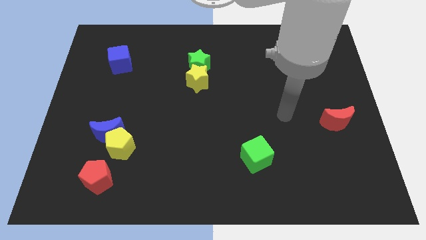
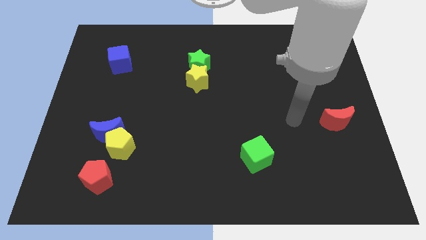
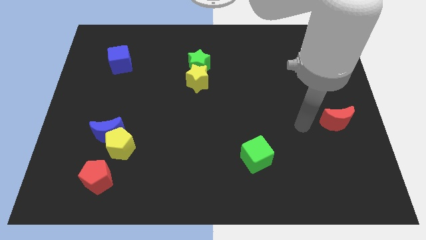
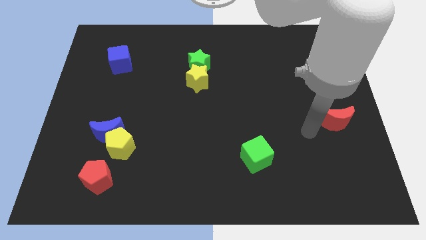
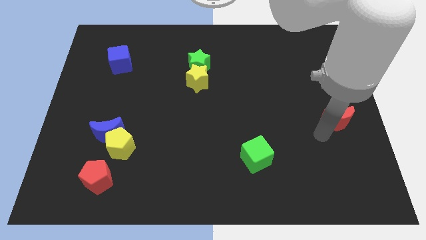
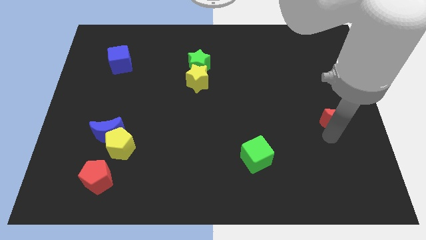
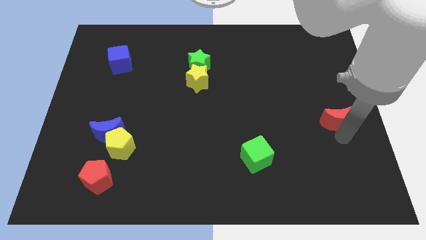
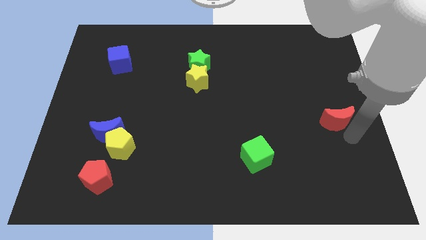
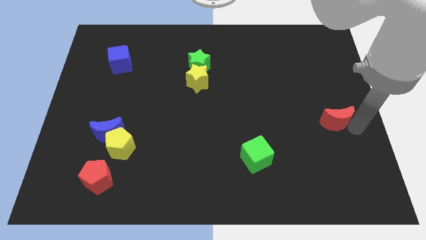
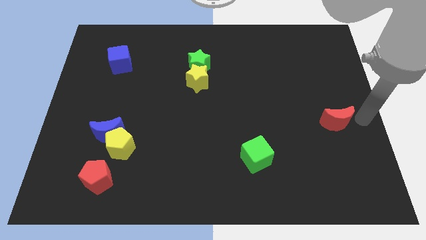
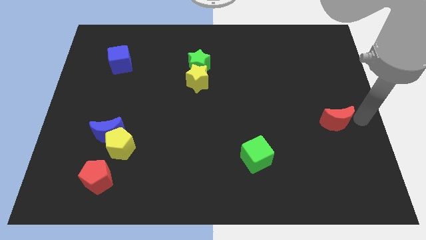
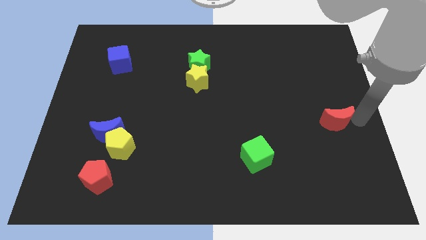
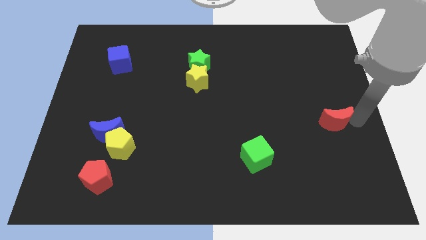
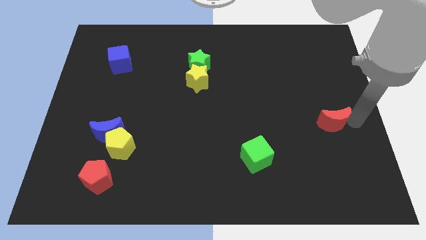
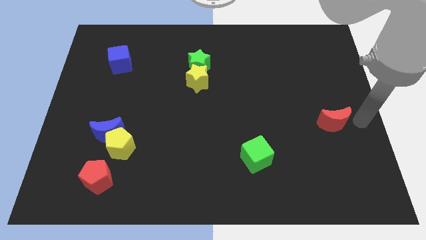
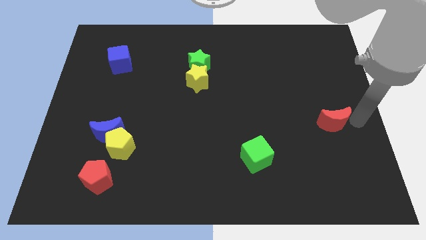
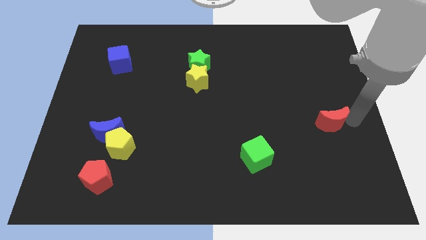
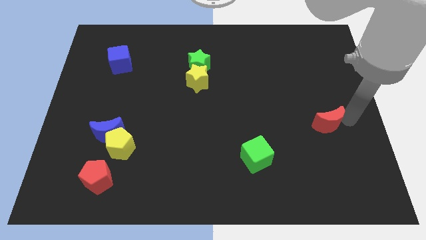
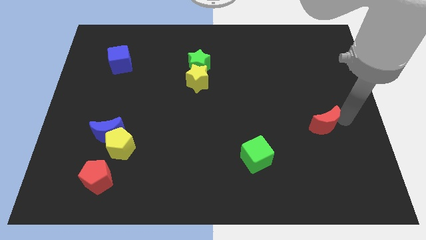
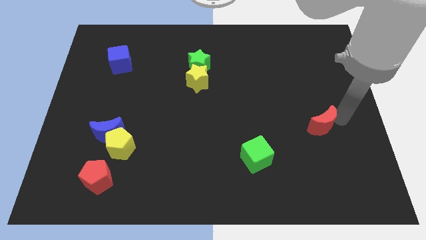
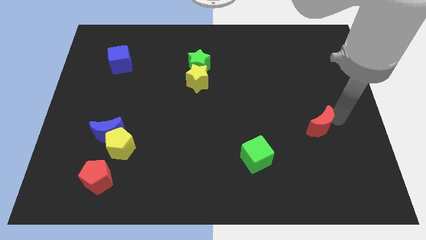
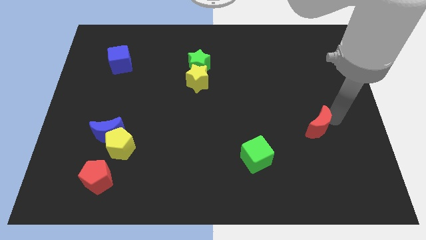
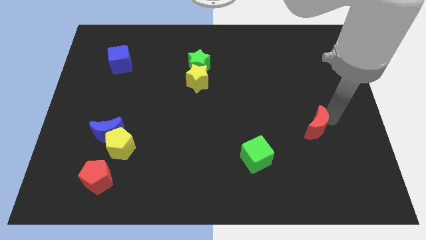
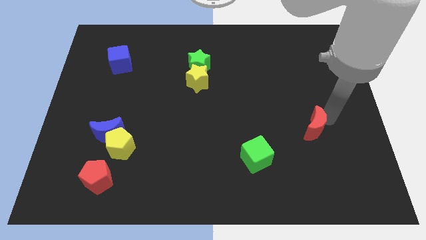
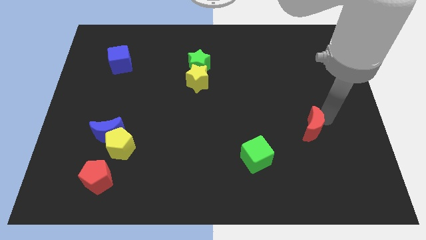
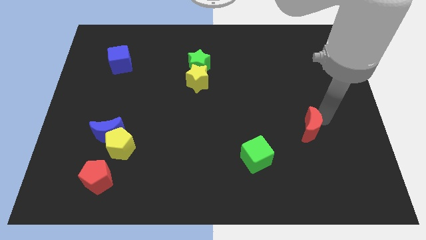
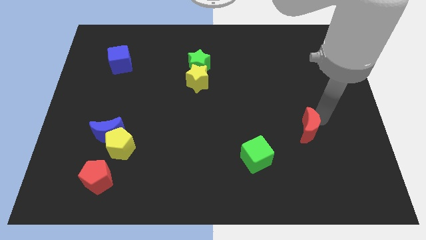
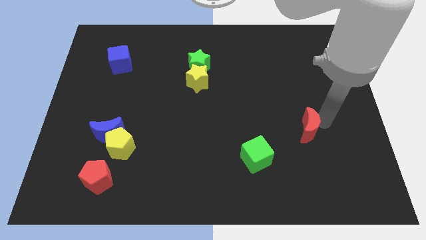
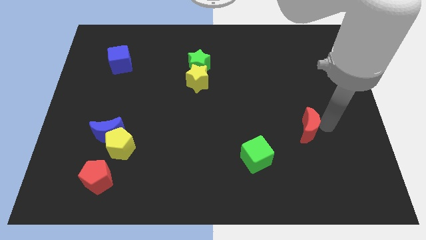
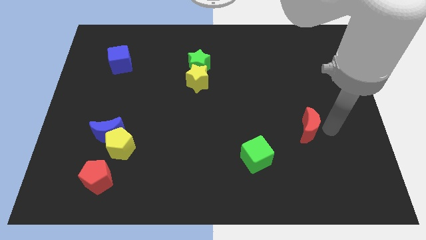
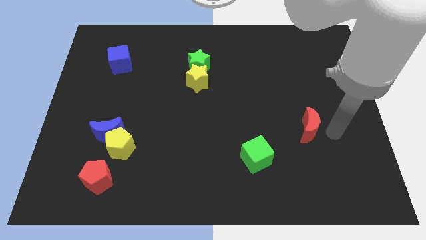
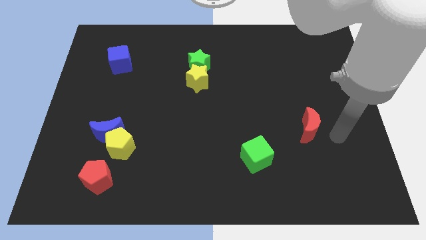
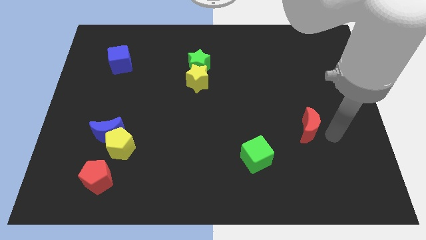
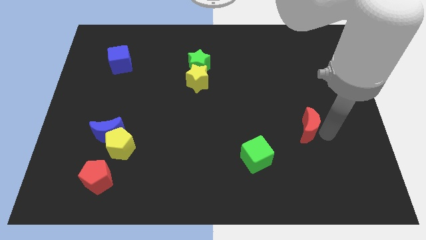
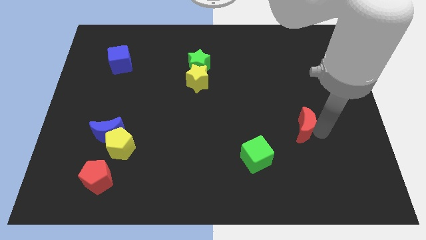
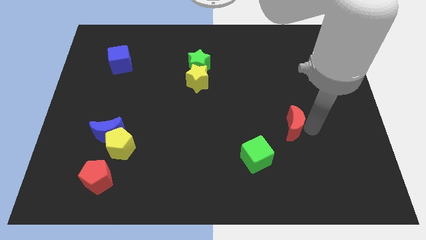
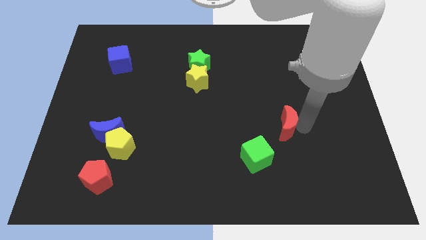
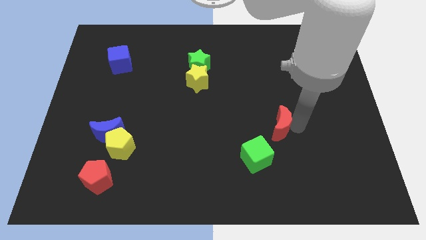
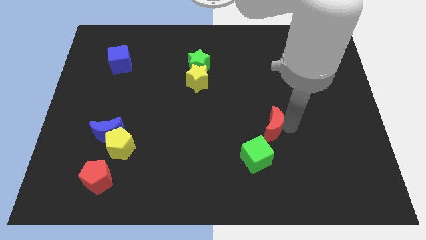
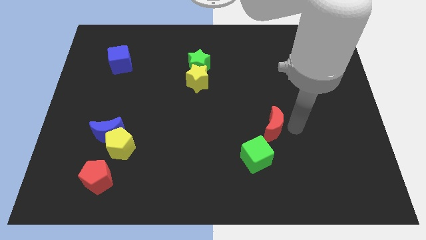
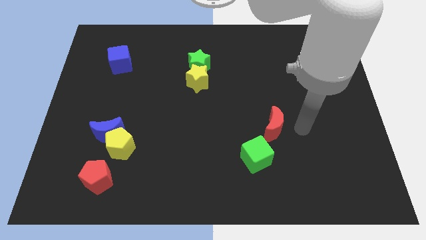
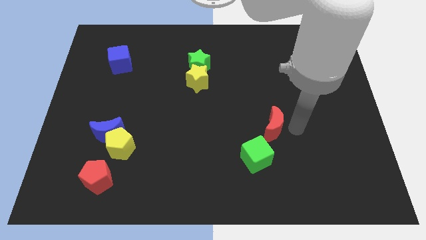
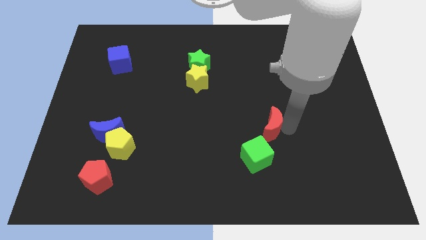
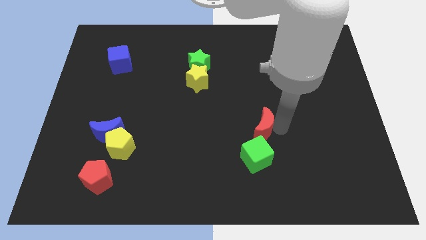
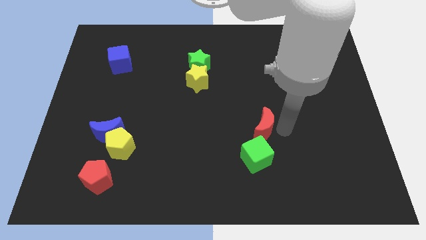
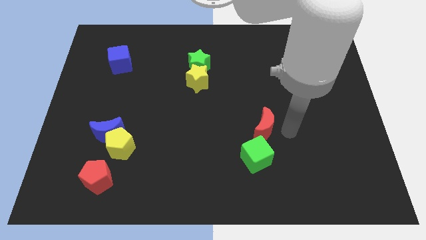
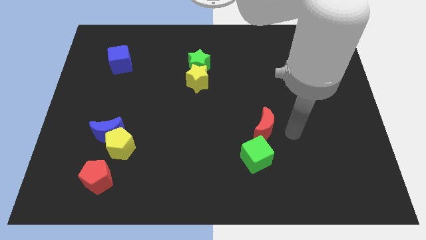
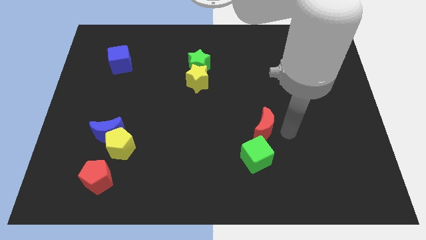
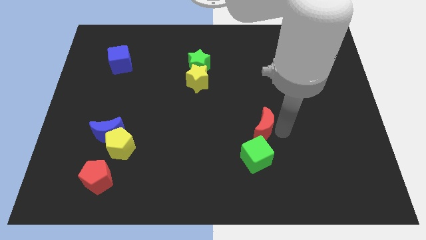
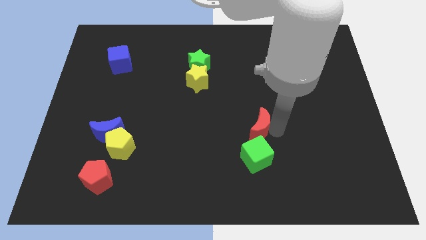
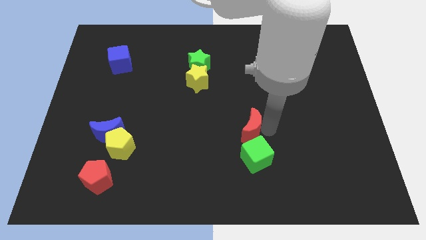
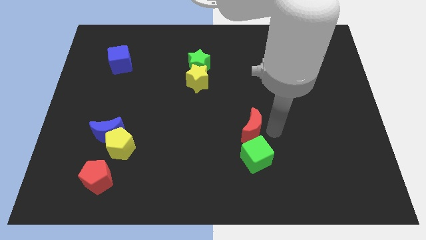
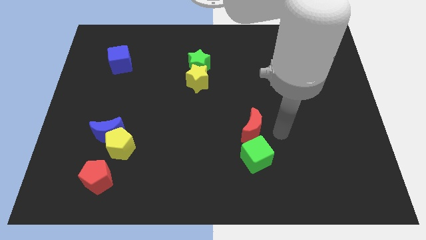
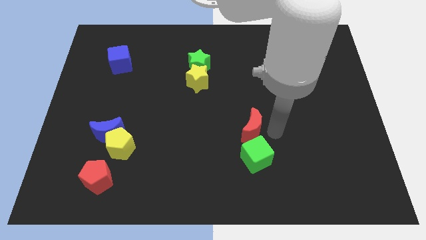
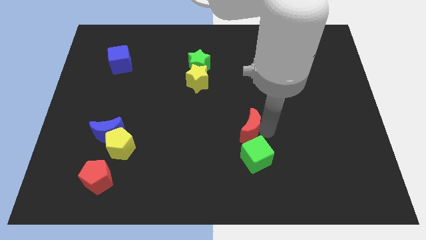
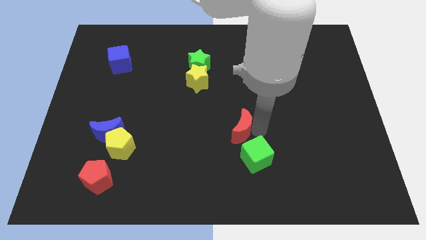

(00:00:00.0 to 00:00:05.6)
push the red moon to the left

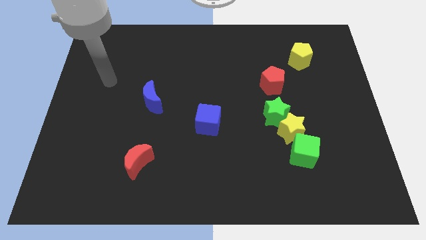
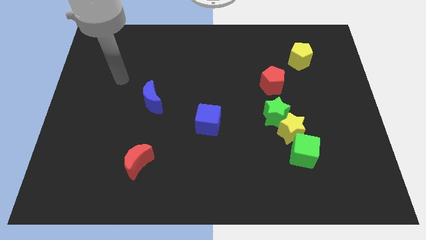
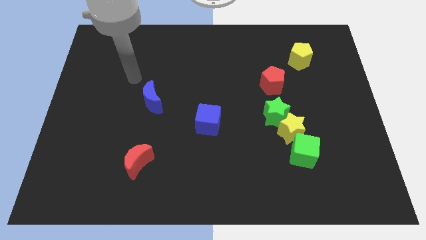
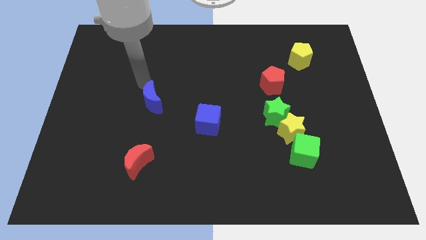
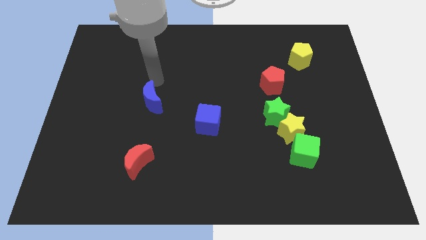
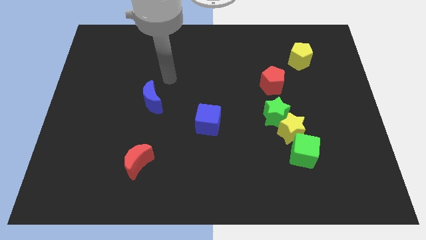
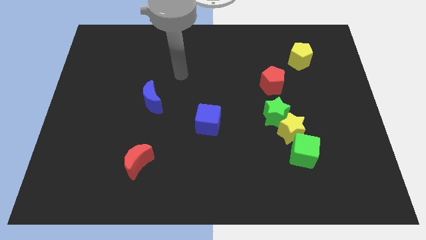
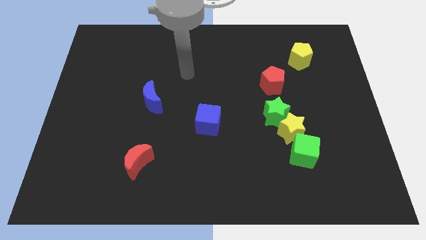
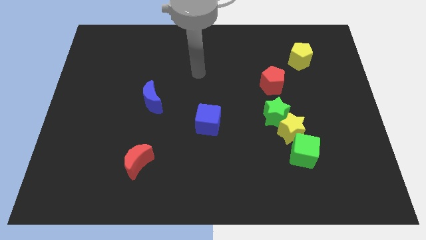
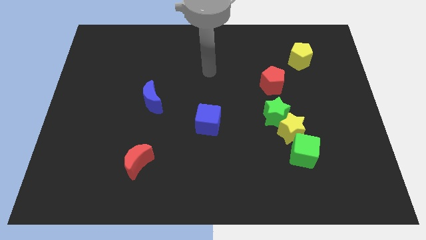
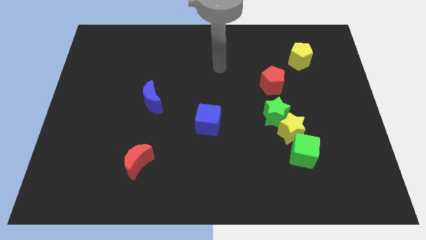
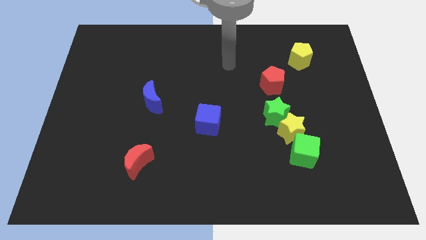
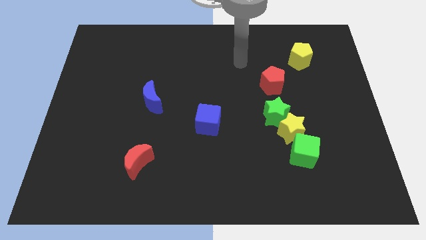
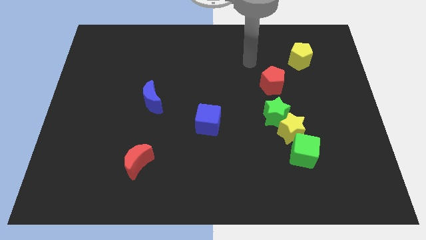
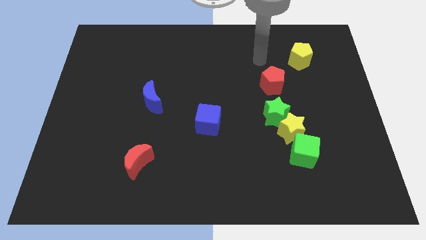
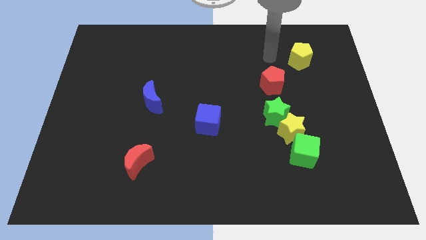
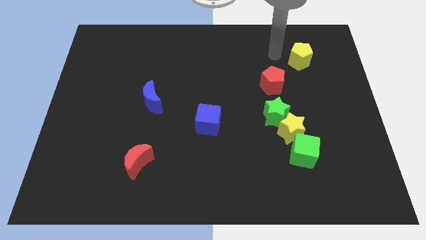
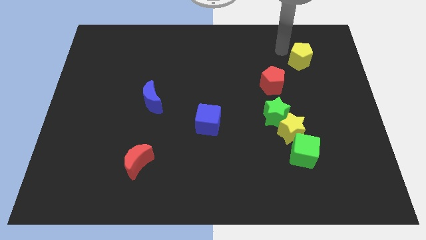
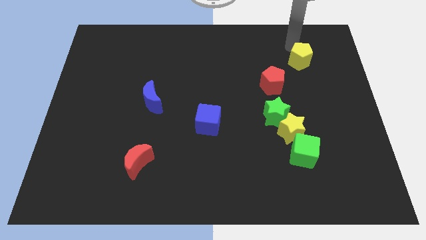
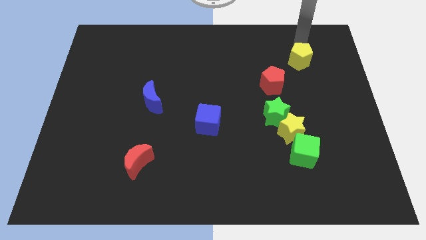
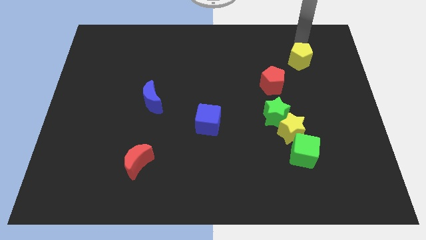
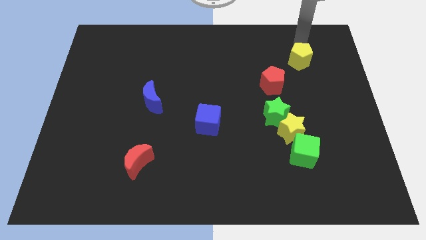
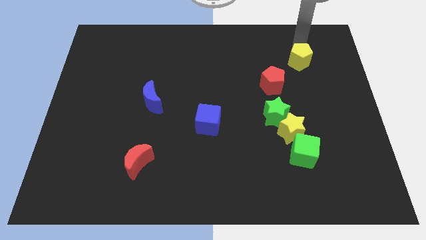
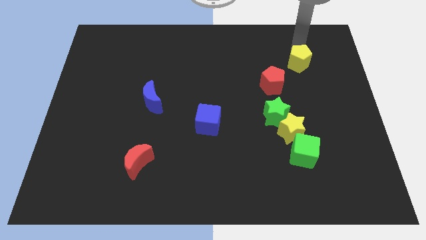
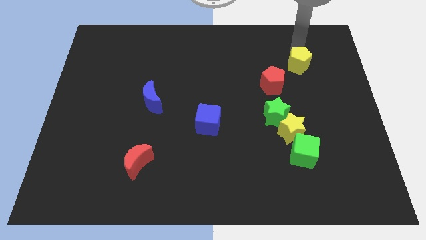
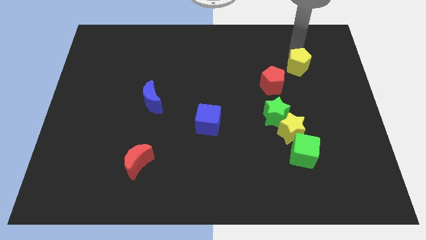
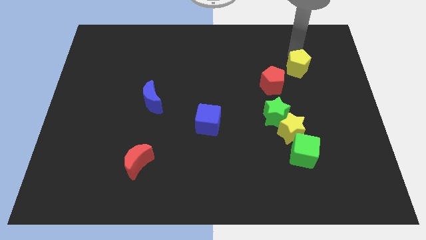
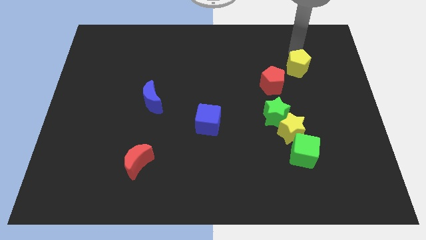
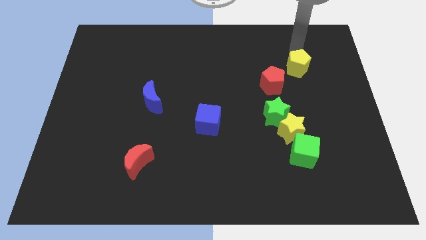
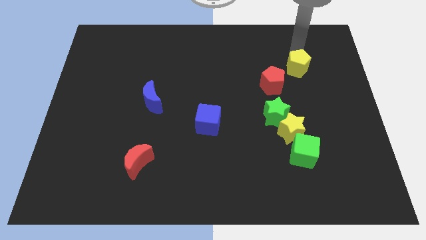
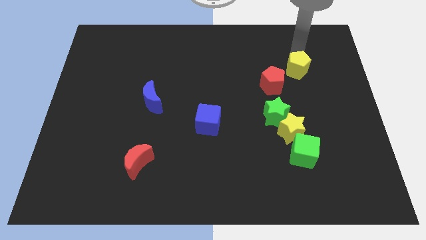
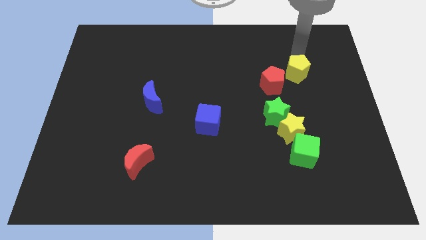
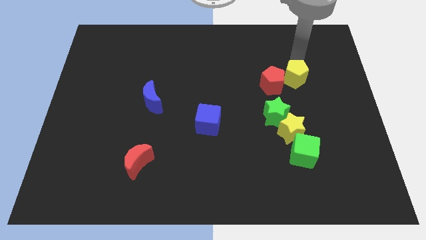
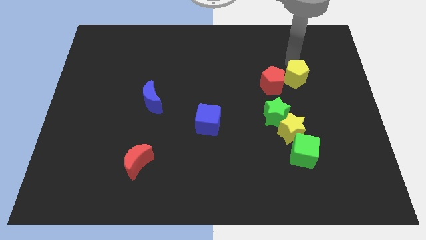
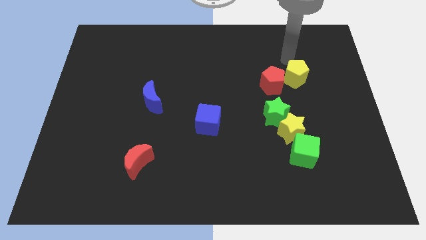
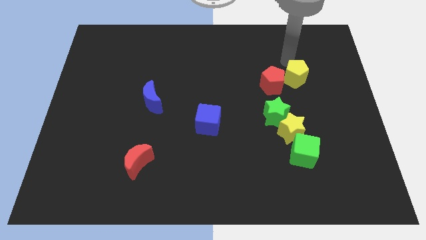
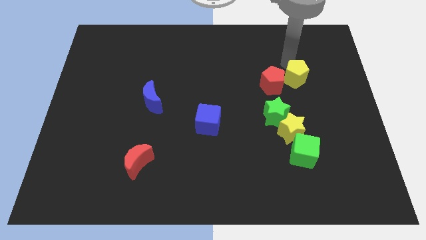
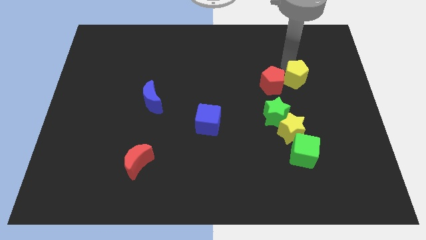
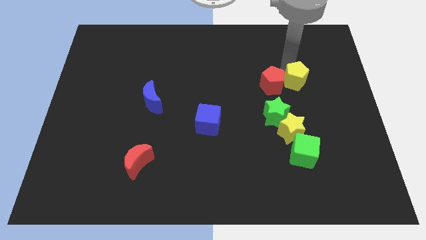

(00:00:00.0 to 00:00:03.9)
slightly push the yellow pentagon downwards
